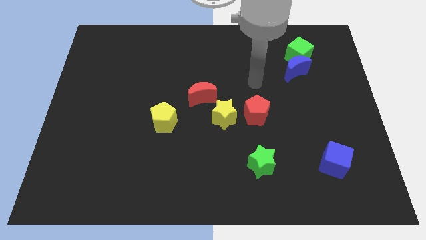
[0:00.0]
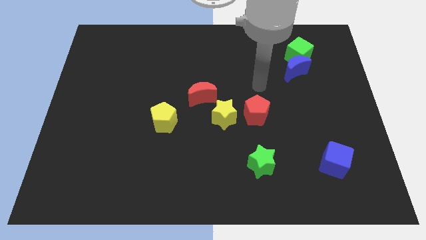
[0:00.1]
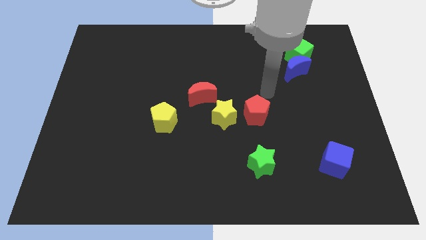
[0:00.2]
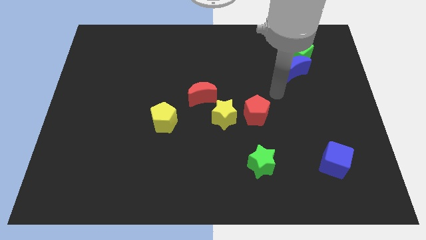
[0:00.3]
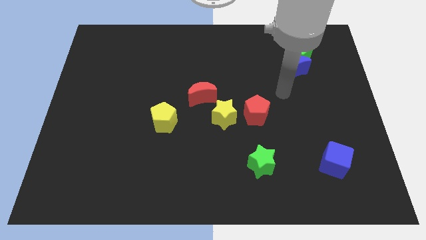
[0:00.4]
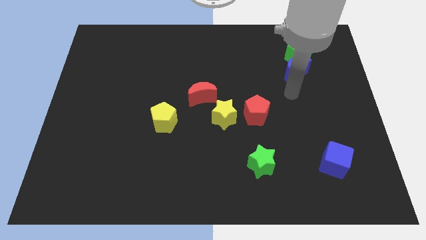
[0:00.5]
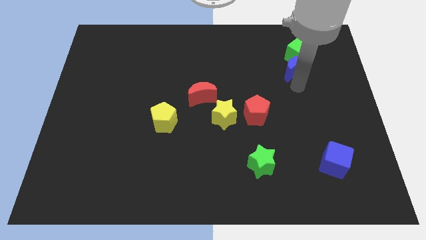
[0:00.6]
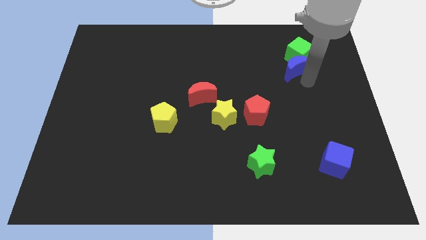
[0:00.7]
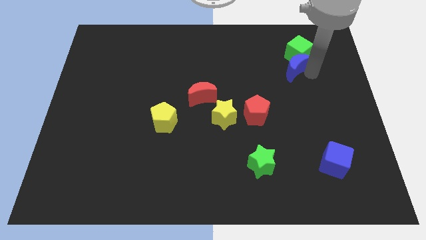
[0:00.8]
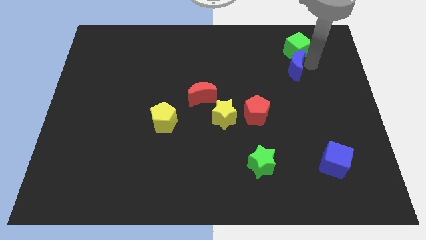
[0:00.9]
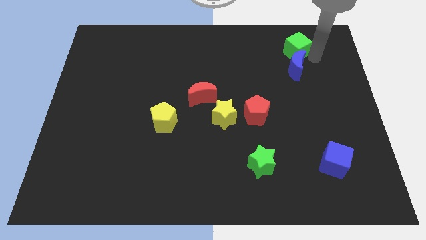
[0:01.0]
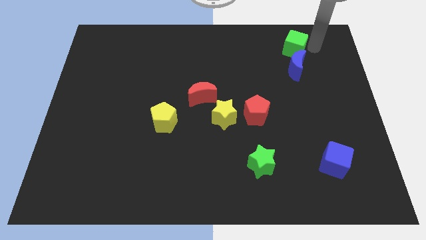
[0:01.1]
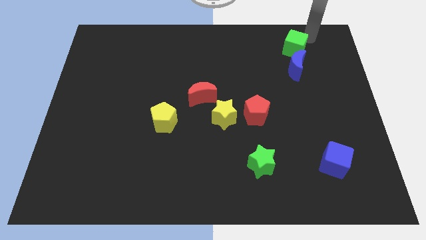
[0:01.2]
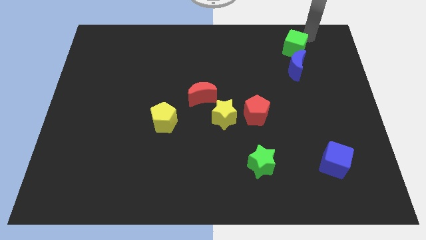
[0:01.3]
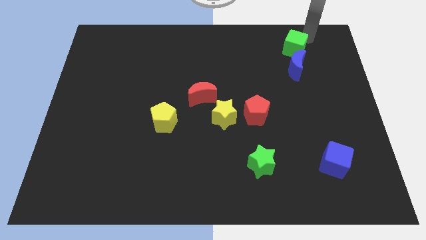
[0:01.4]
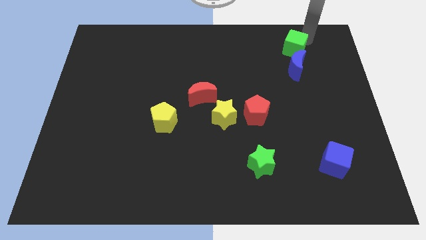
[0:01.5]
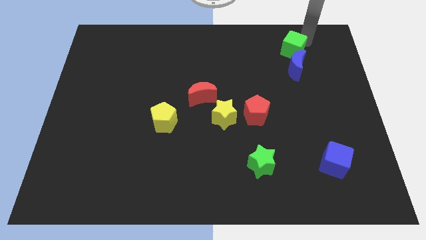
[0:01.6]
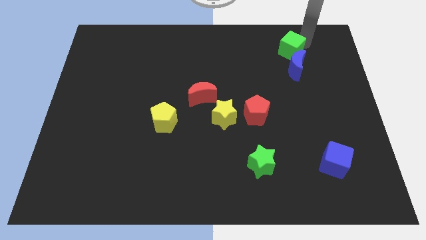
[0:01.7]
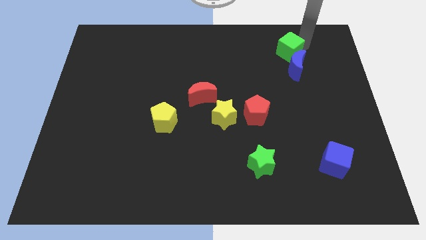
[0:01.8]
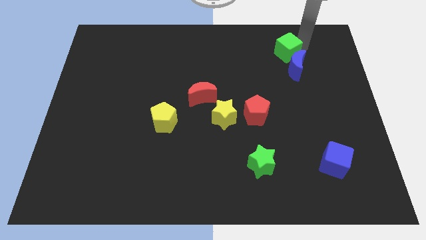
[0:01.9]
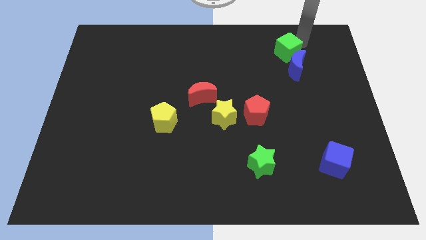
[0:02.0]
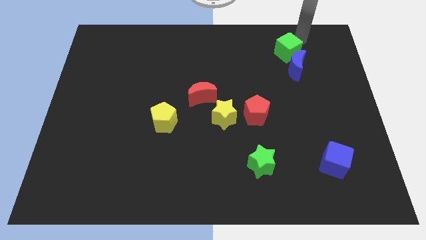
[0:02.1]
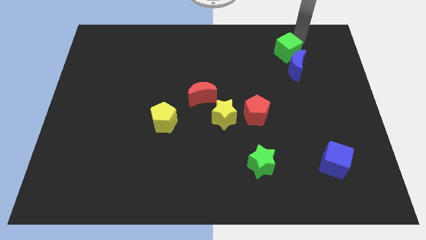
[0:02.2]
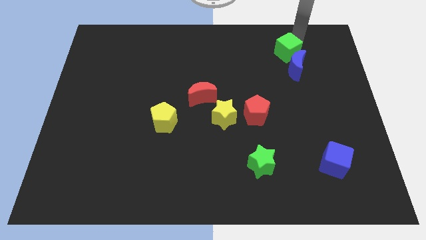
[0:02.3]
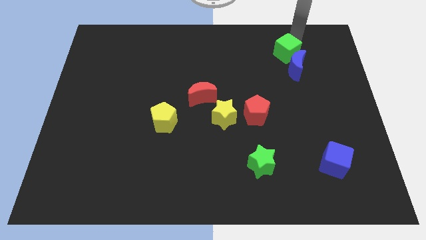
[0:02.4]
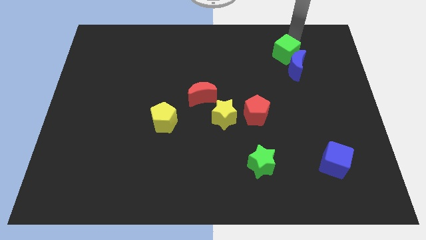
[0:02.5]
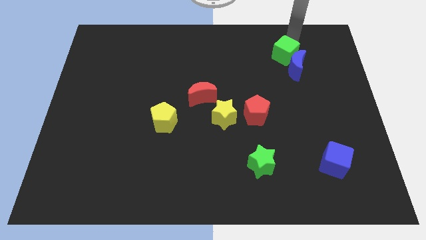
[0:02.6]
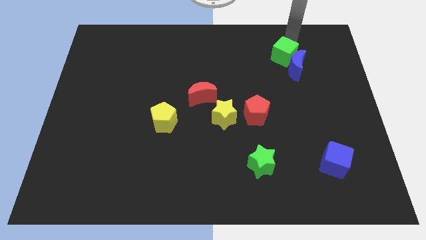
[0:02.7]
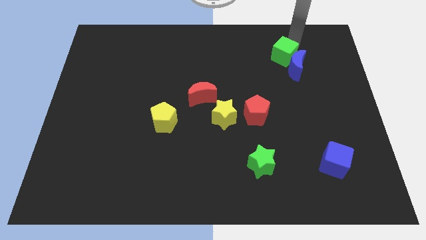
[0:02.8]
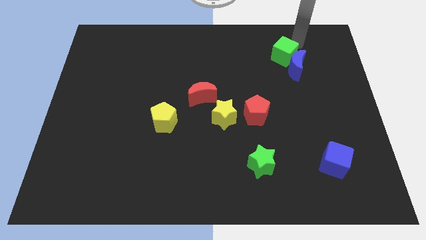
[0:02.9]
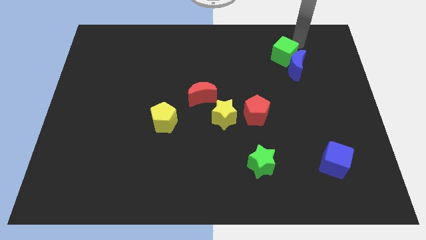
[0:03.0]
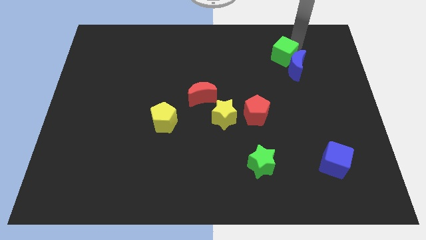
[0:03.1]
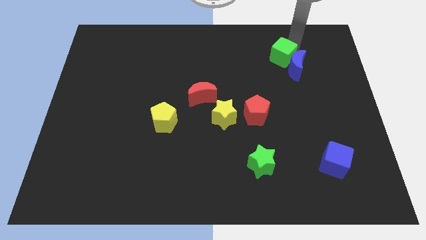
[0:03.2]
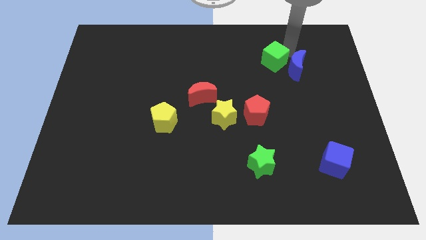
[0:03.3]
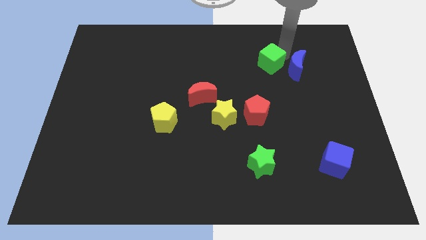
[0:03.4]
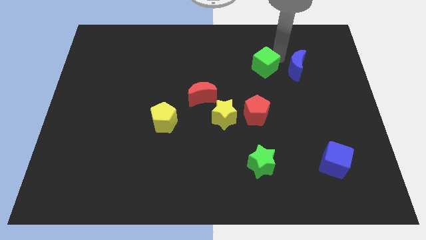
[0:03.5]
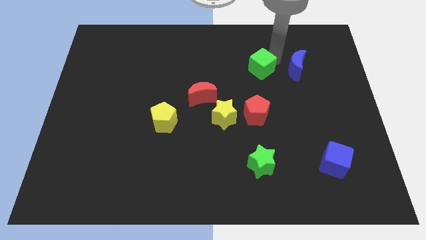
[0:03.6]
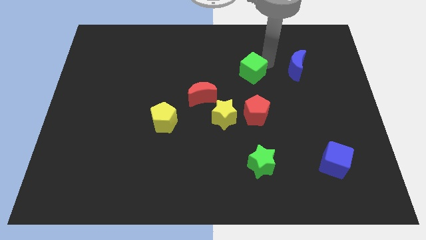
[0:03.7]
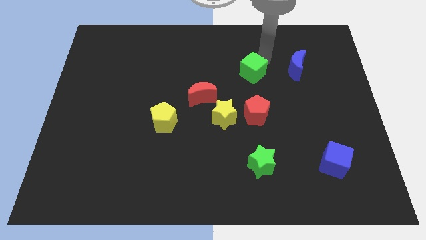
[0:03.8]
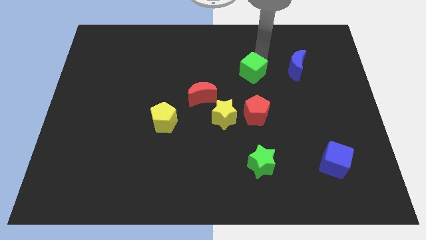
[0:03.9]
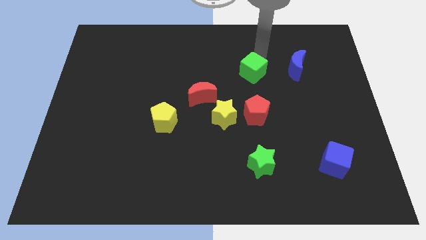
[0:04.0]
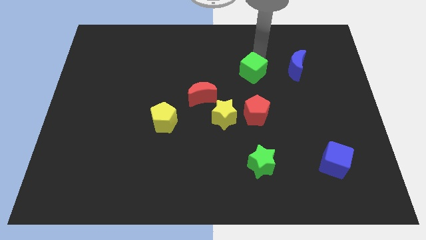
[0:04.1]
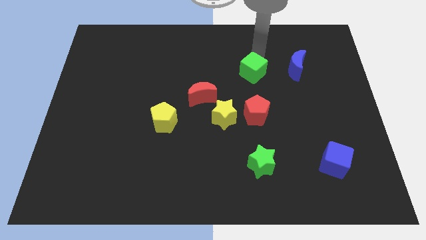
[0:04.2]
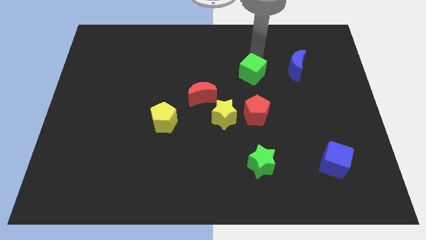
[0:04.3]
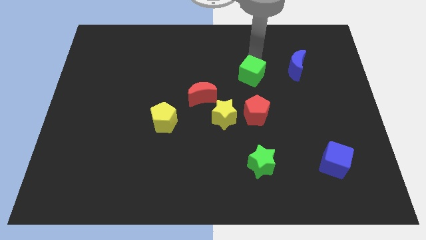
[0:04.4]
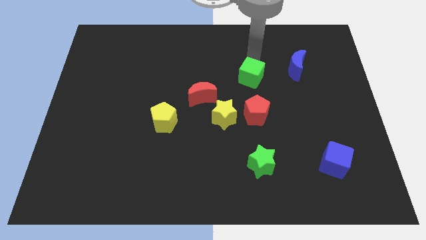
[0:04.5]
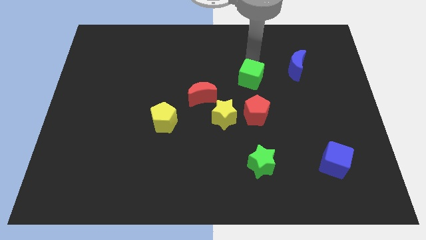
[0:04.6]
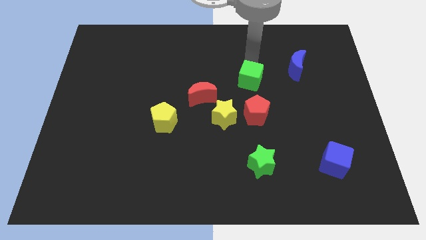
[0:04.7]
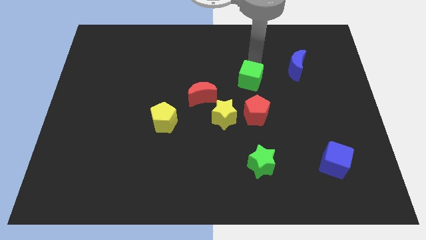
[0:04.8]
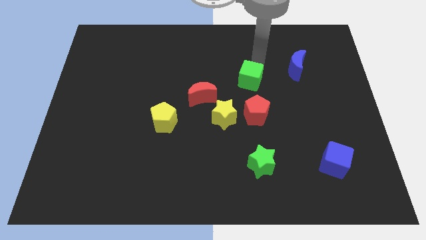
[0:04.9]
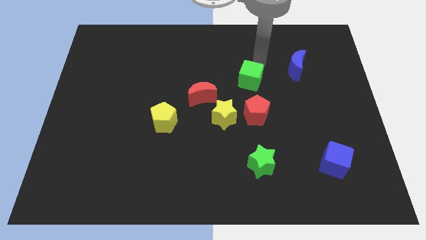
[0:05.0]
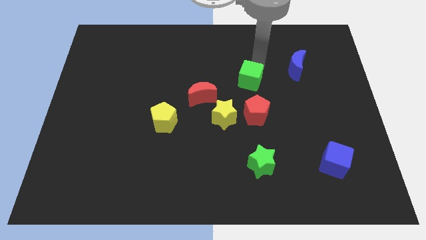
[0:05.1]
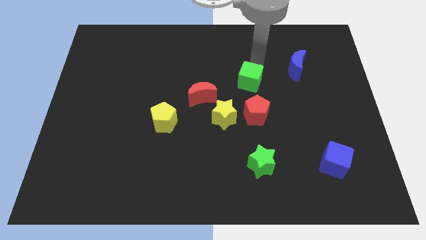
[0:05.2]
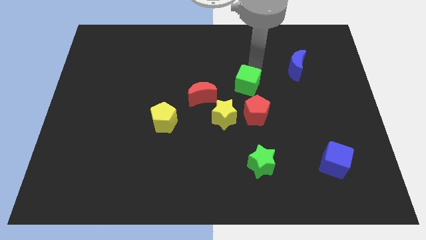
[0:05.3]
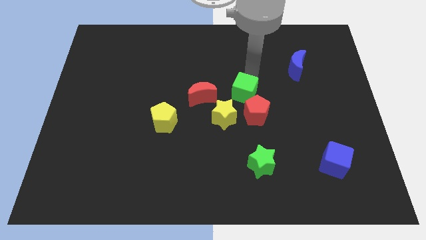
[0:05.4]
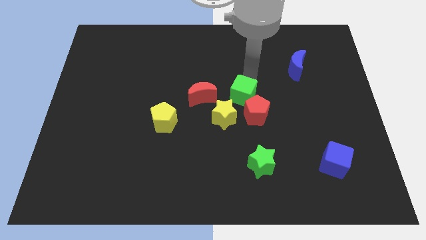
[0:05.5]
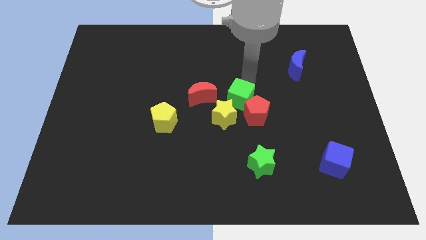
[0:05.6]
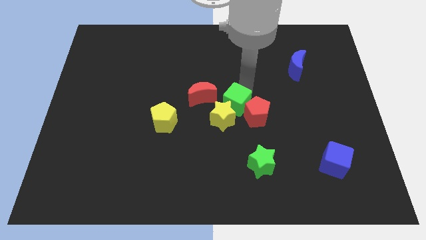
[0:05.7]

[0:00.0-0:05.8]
move the green cube to the yellow star
